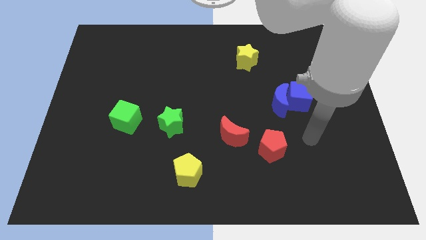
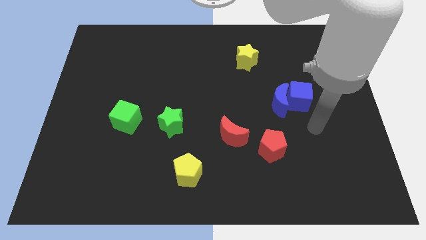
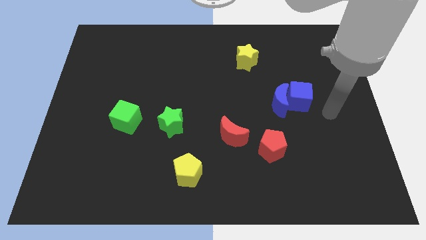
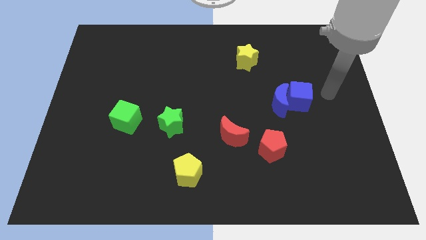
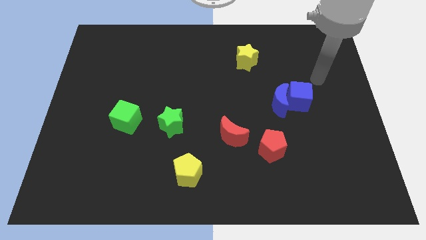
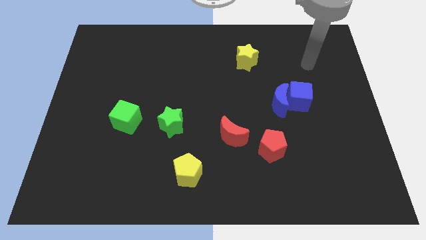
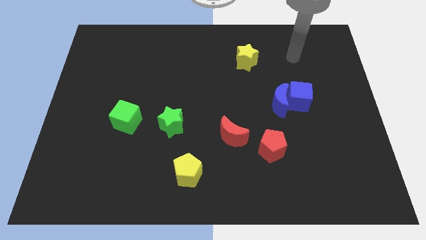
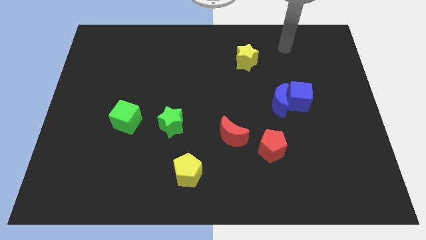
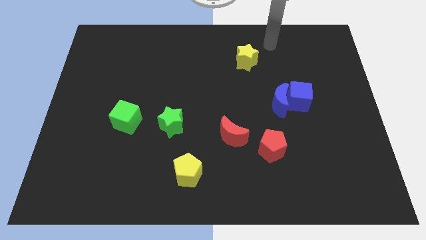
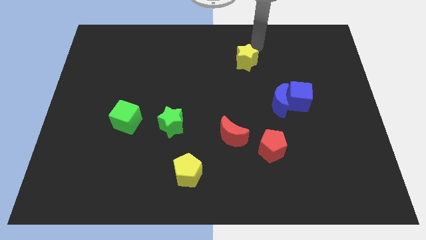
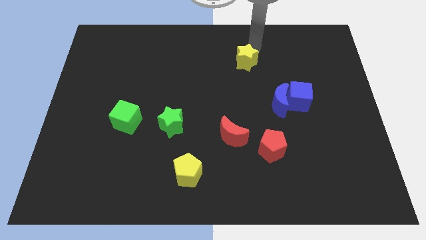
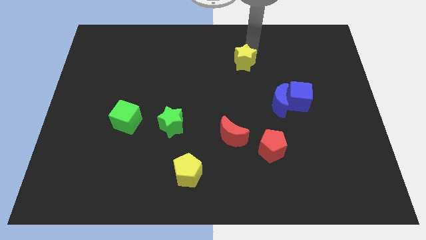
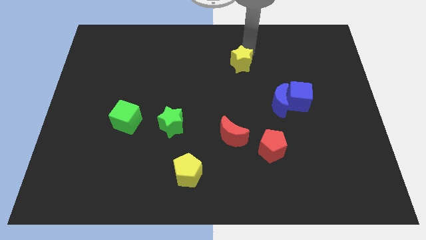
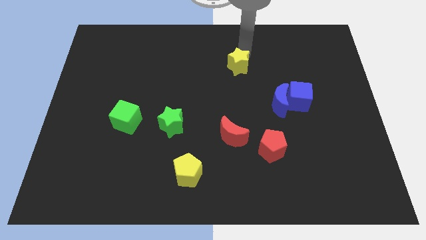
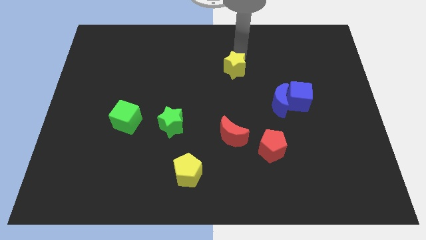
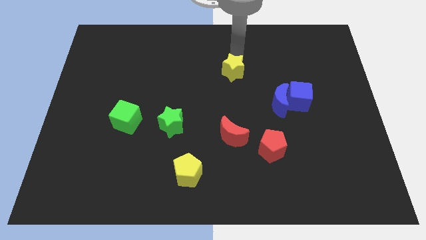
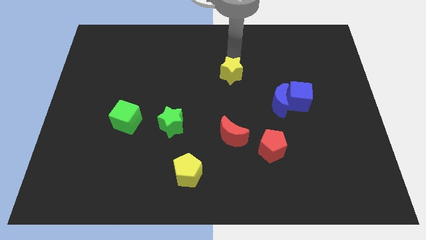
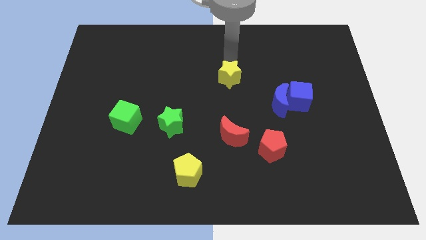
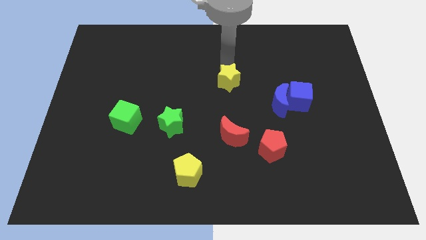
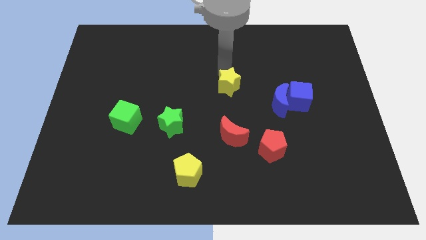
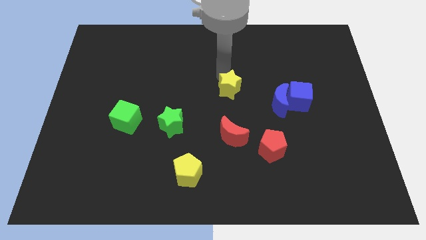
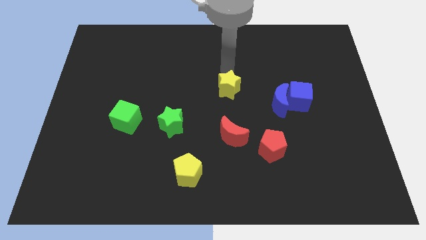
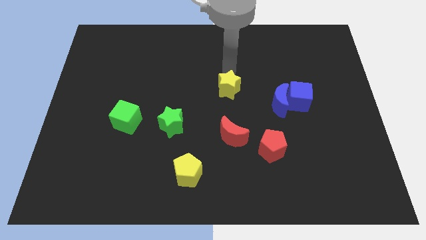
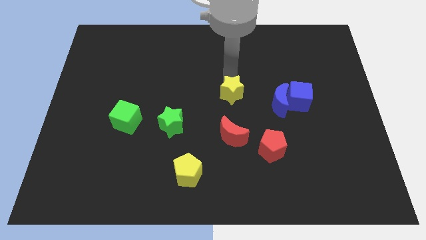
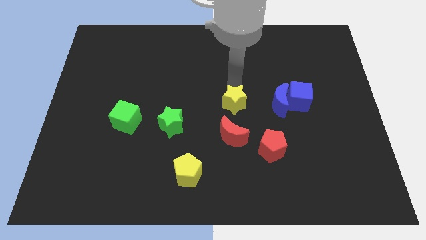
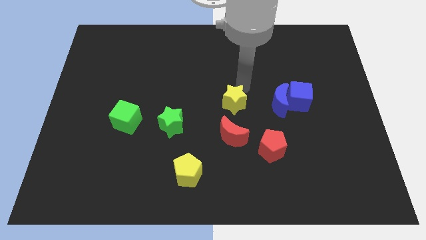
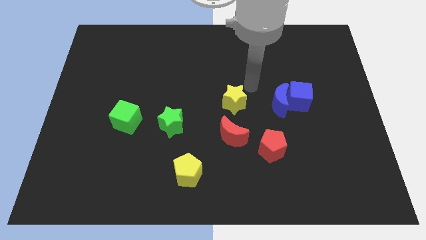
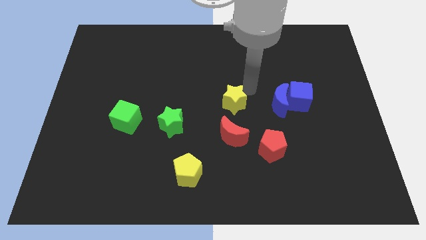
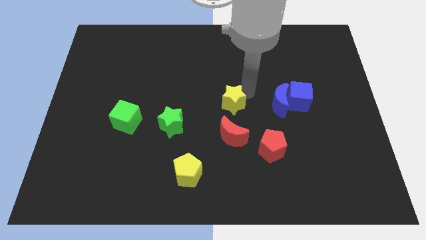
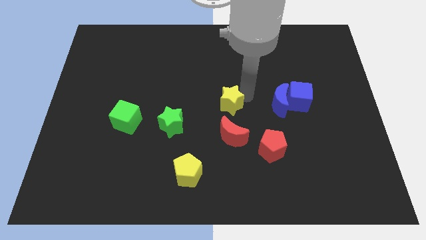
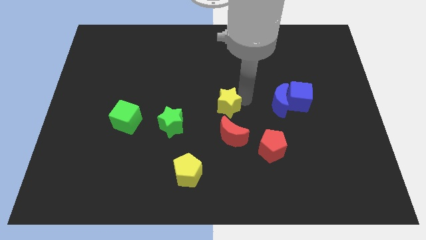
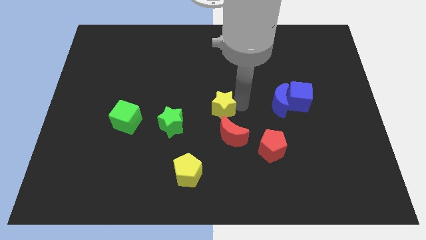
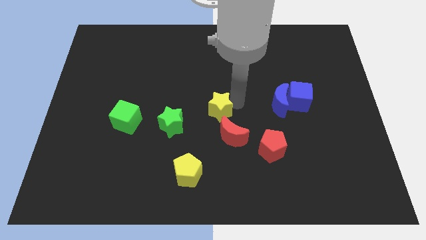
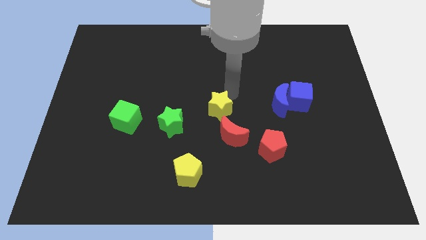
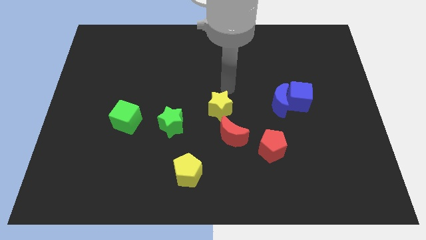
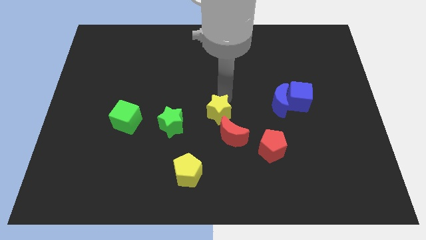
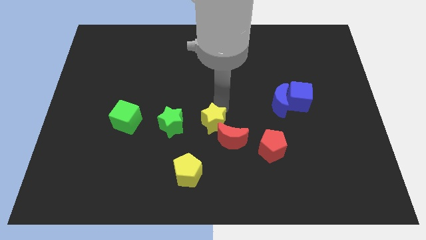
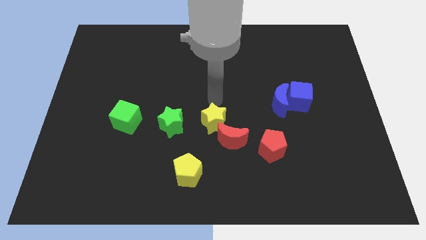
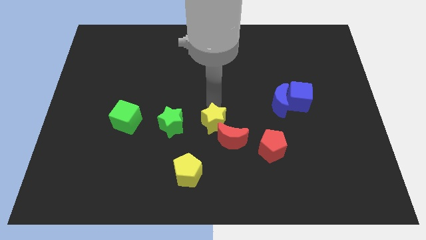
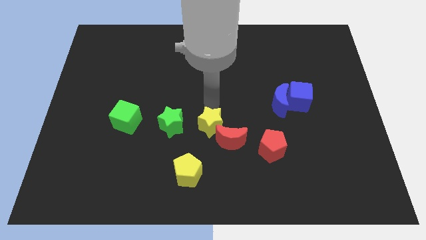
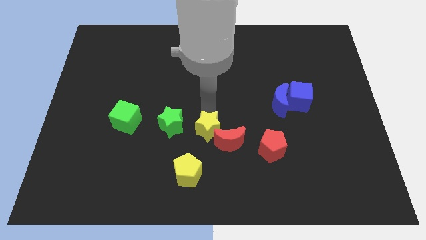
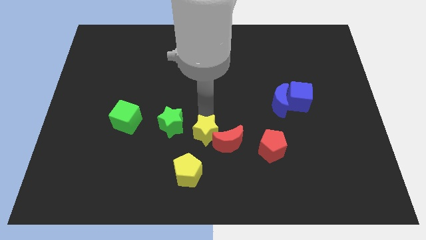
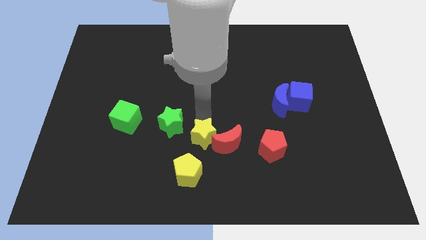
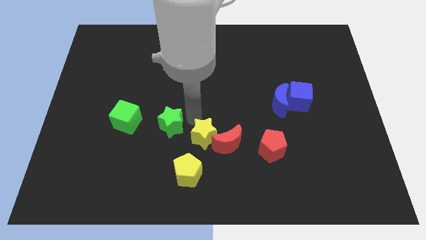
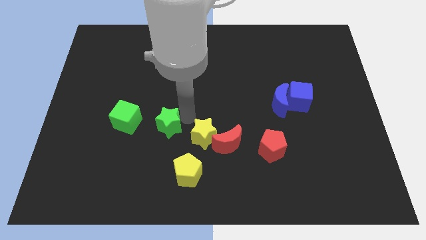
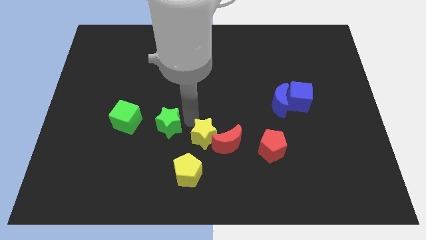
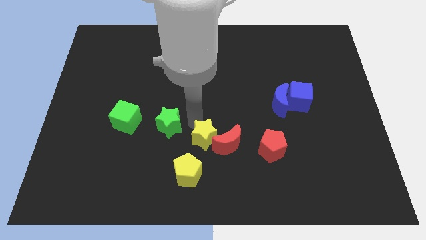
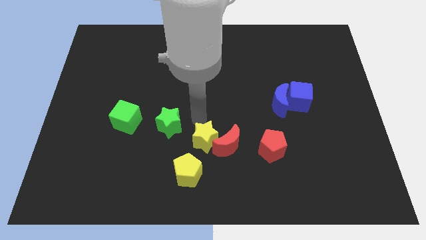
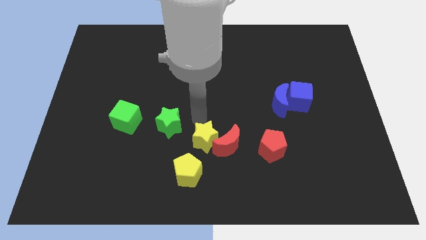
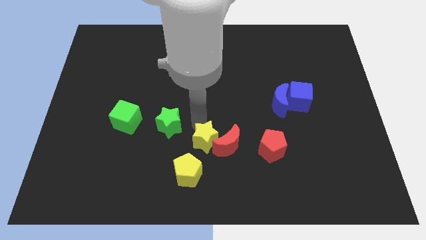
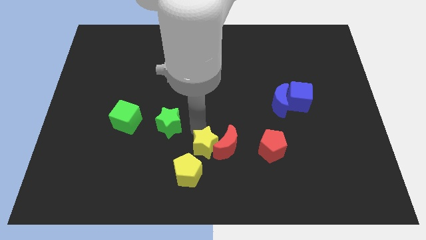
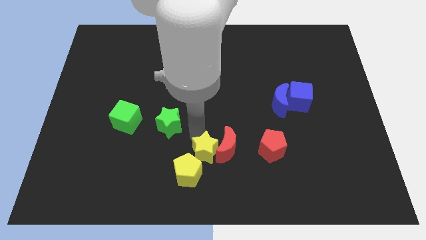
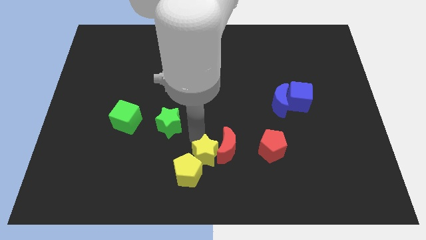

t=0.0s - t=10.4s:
put the yellow star to the bottom side

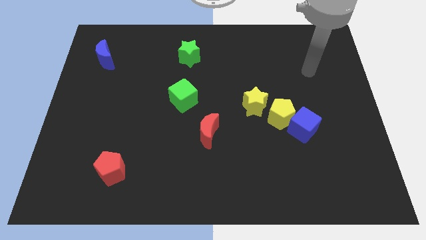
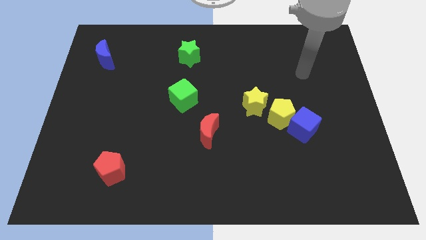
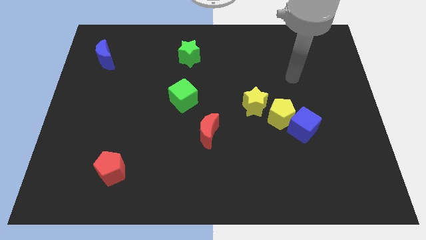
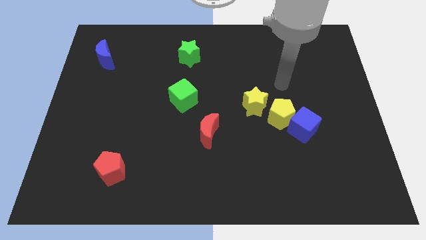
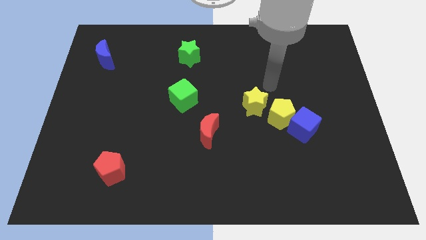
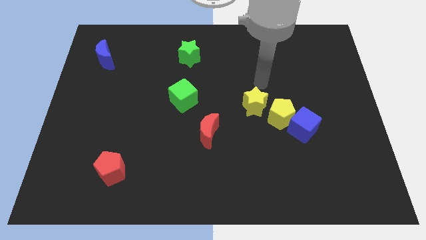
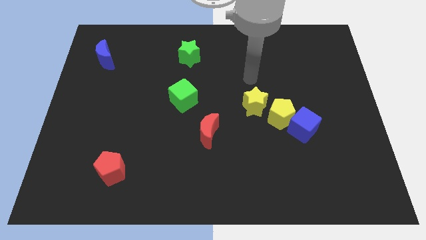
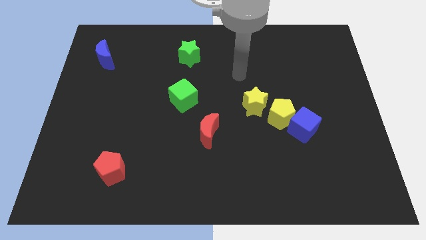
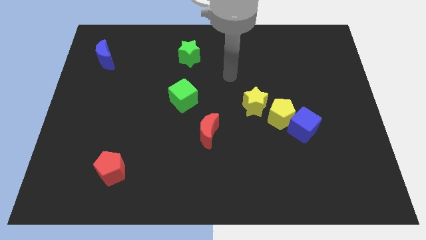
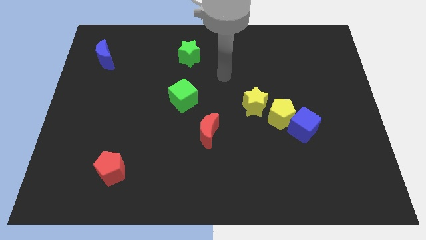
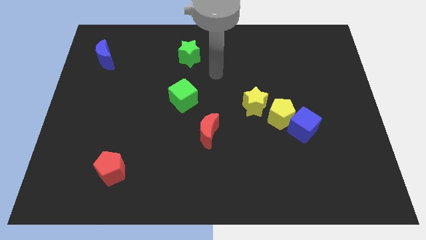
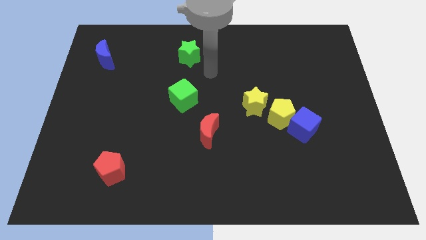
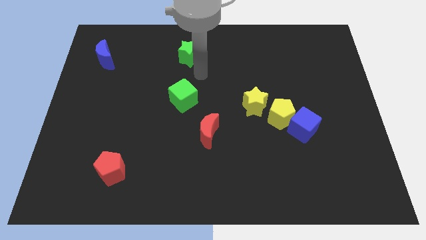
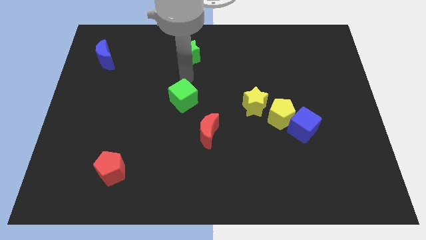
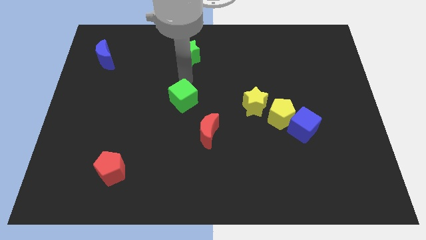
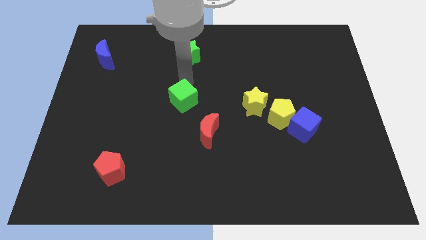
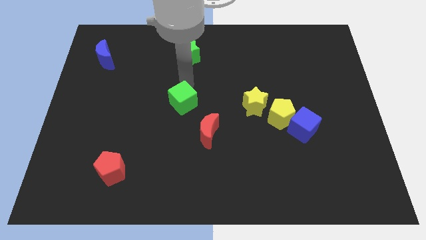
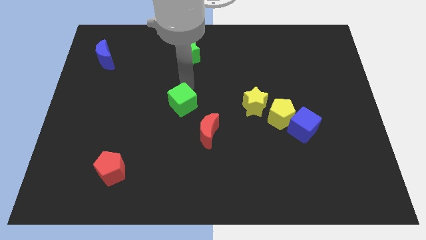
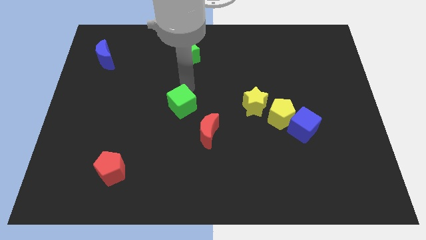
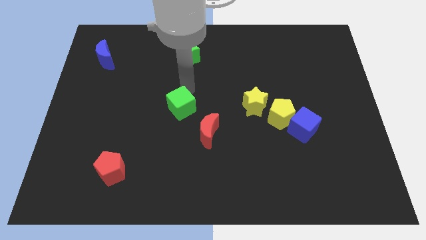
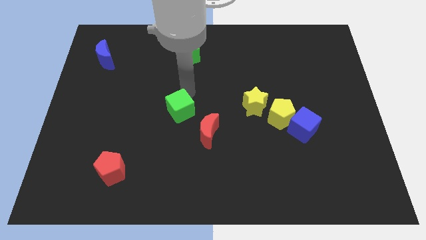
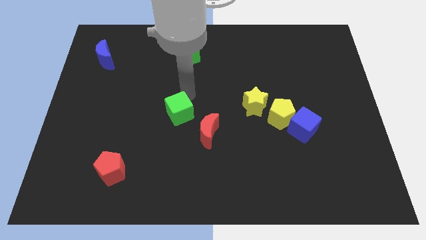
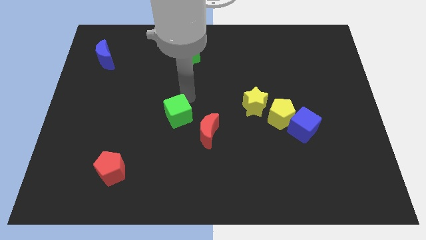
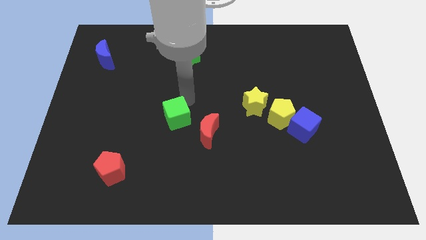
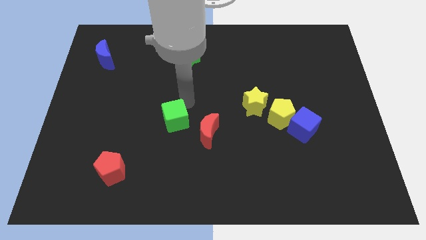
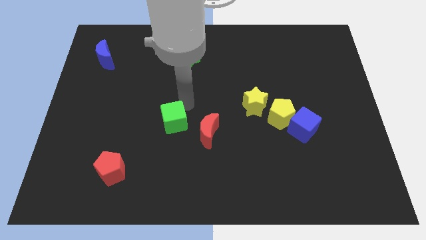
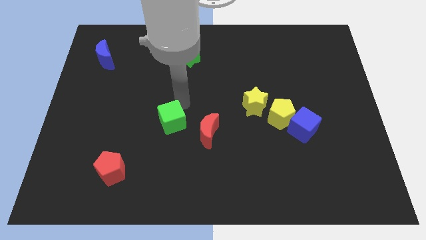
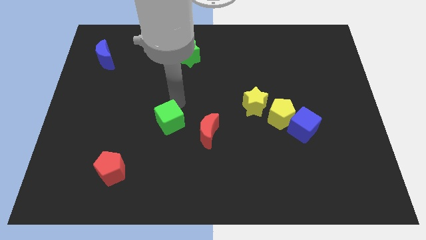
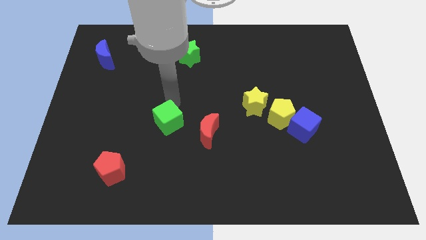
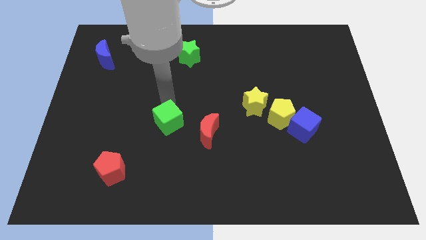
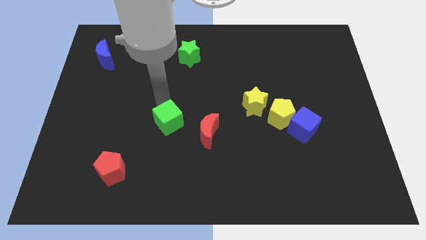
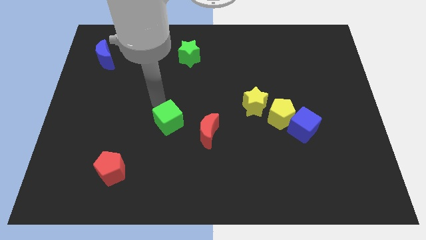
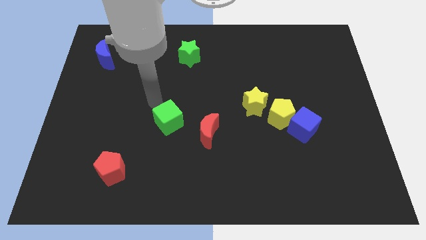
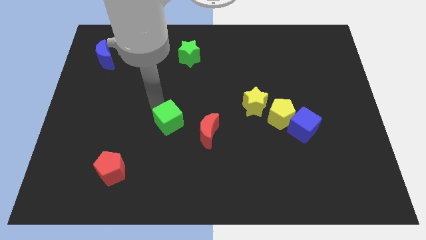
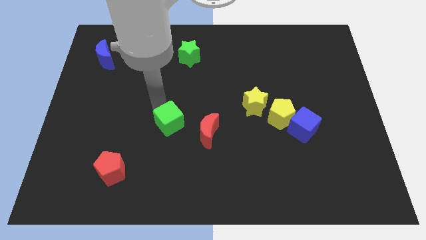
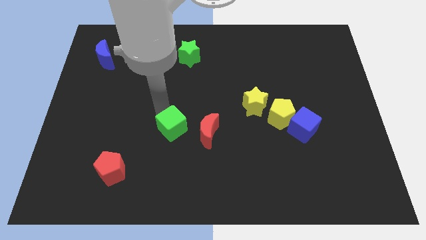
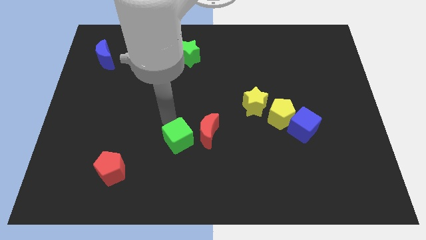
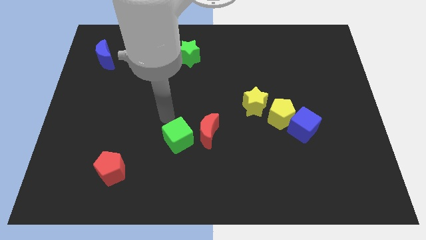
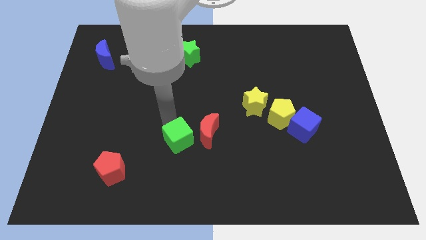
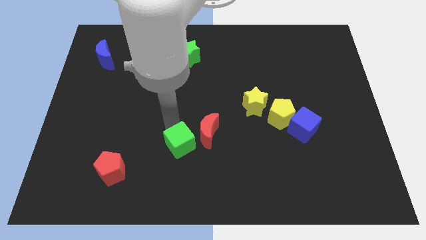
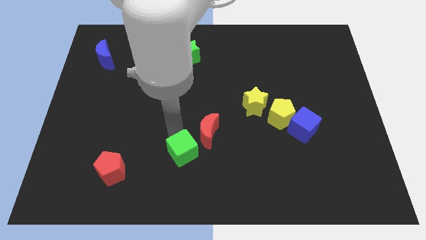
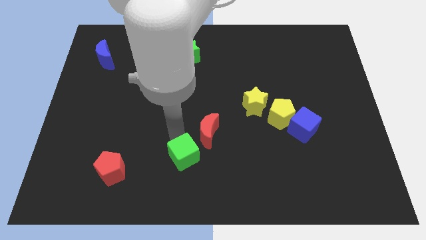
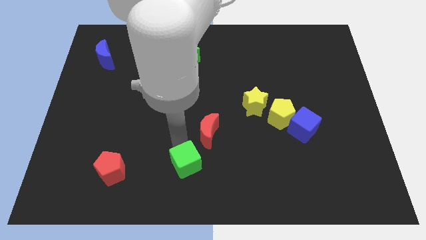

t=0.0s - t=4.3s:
push the green cube to the bottom side
